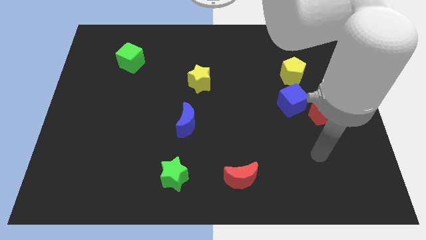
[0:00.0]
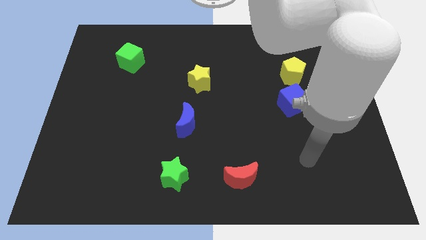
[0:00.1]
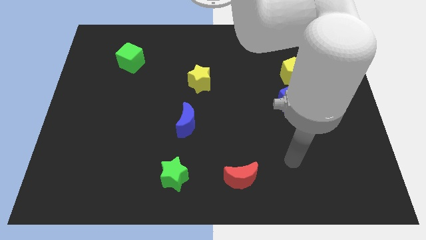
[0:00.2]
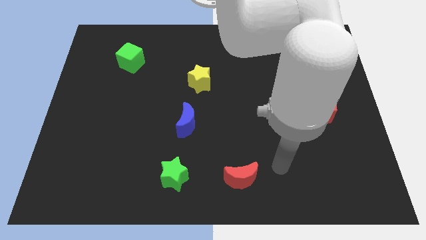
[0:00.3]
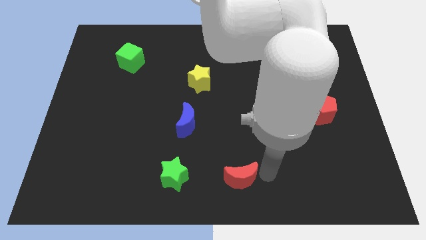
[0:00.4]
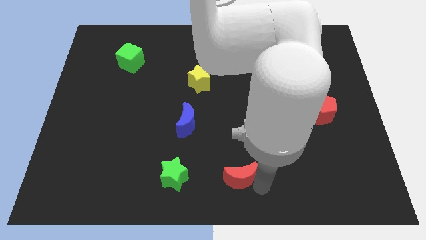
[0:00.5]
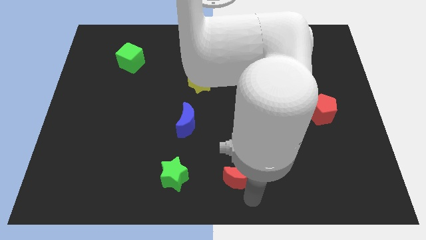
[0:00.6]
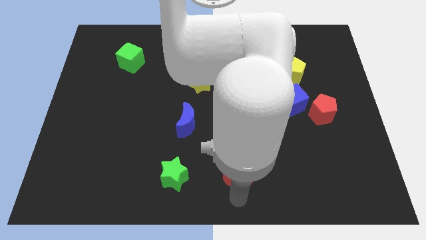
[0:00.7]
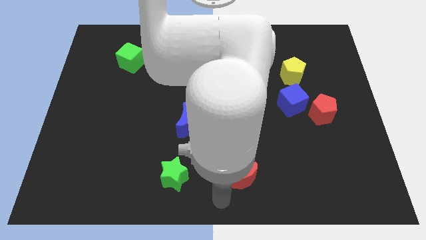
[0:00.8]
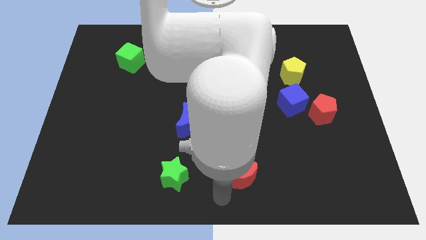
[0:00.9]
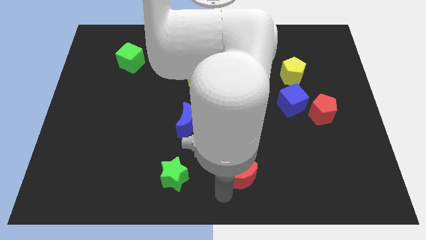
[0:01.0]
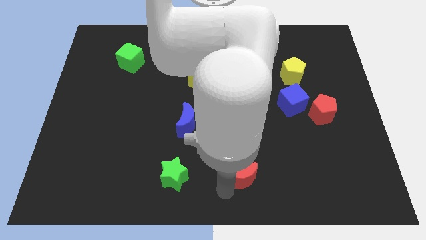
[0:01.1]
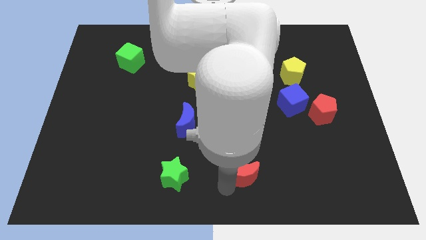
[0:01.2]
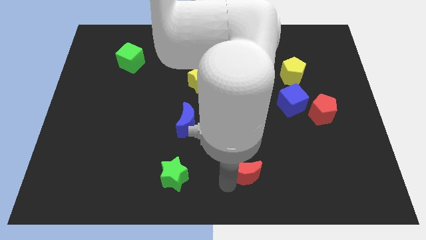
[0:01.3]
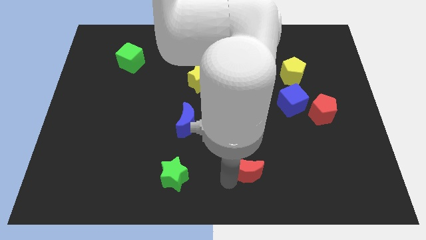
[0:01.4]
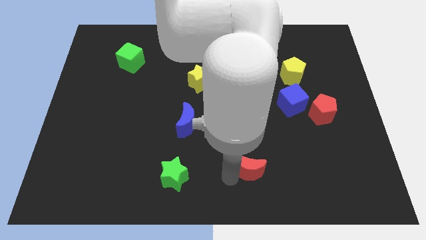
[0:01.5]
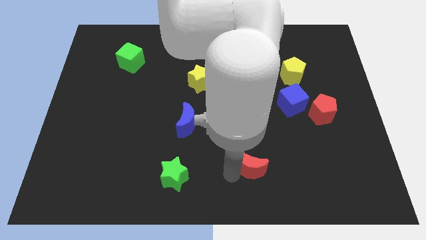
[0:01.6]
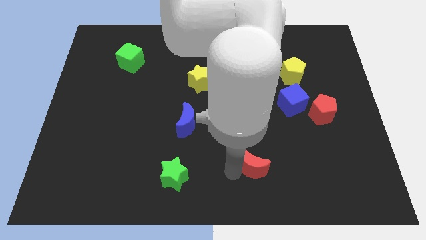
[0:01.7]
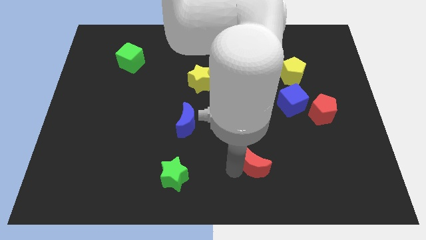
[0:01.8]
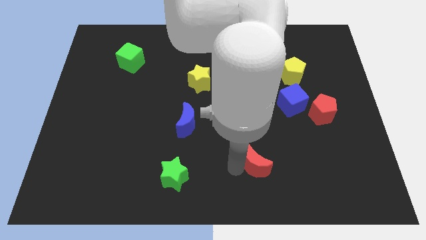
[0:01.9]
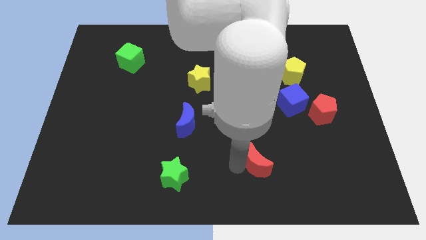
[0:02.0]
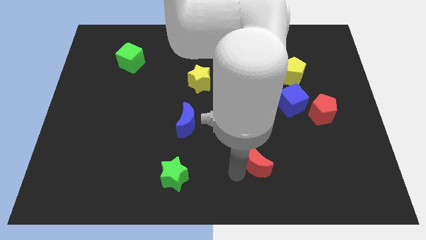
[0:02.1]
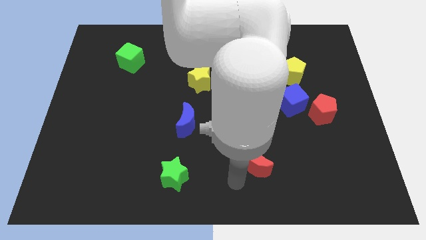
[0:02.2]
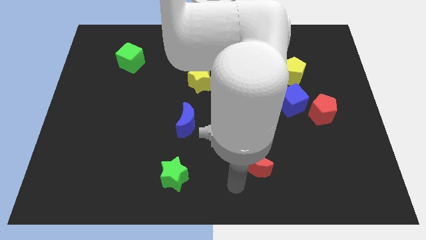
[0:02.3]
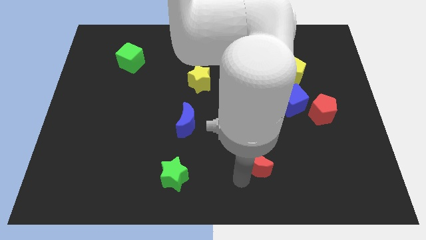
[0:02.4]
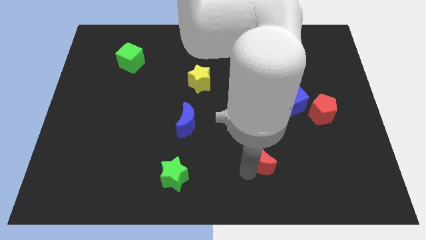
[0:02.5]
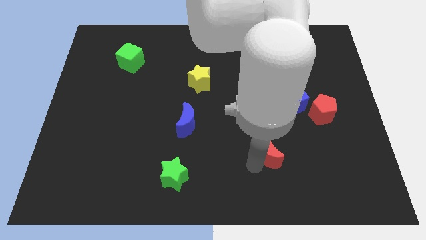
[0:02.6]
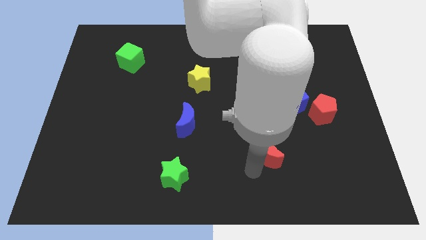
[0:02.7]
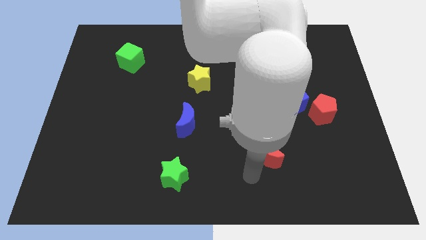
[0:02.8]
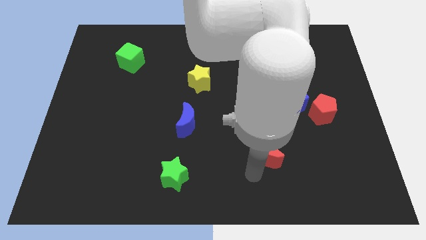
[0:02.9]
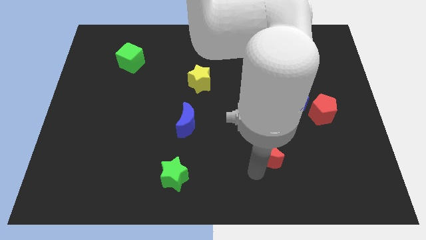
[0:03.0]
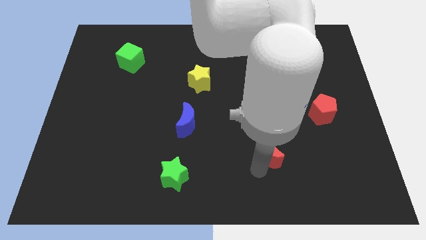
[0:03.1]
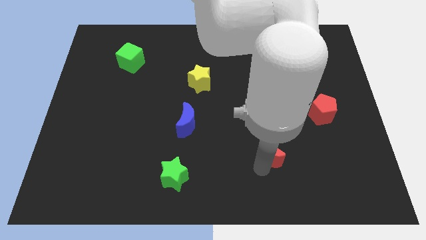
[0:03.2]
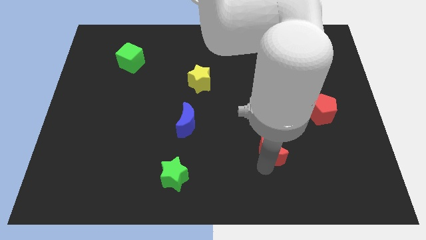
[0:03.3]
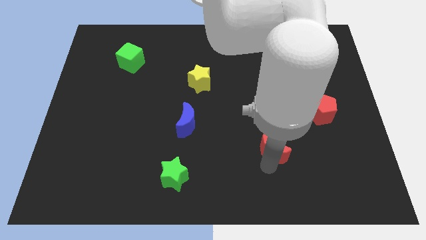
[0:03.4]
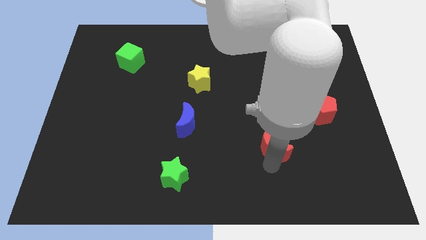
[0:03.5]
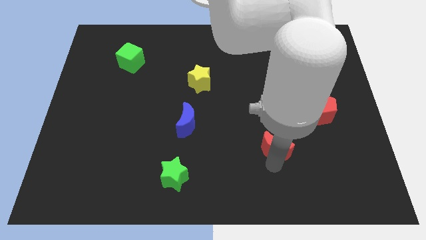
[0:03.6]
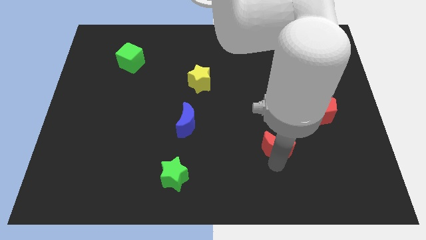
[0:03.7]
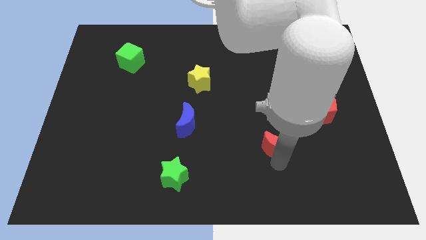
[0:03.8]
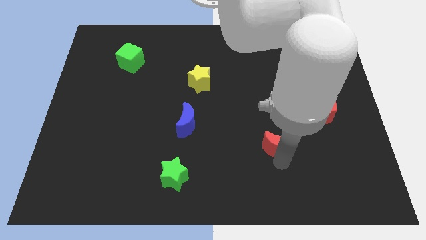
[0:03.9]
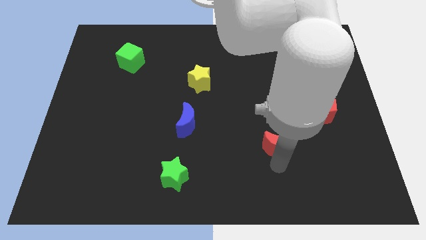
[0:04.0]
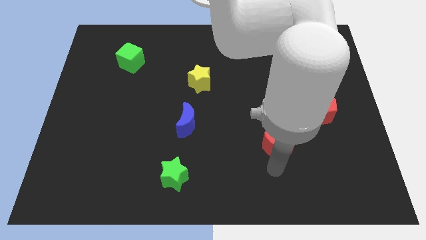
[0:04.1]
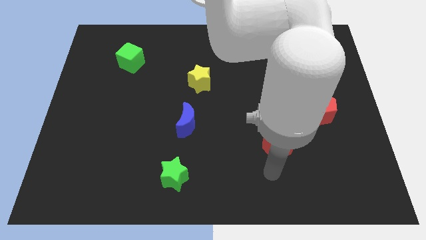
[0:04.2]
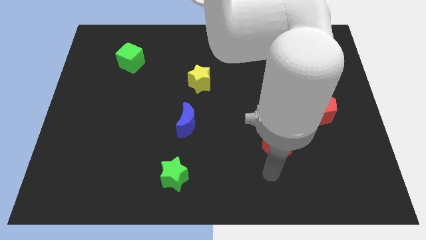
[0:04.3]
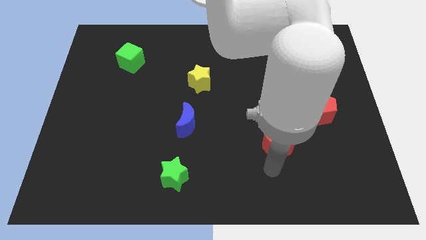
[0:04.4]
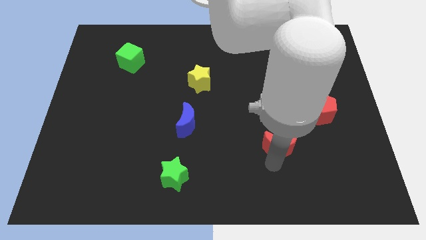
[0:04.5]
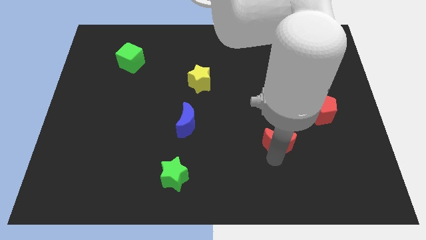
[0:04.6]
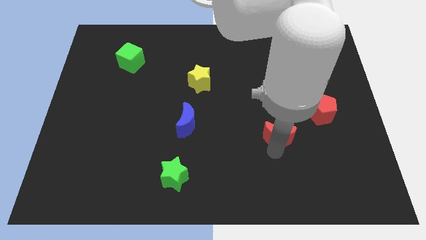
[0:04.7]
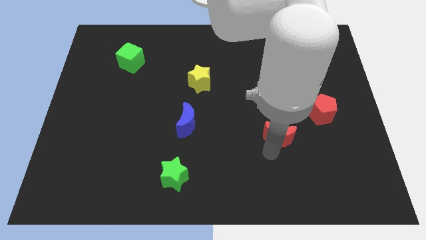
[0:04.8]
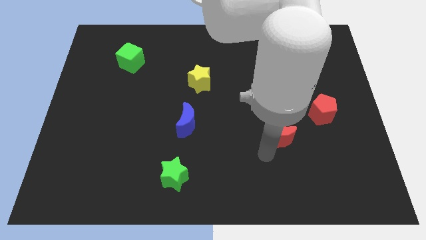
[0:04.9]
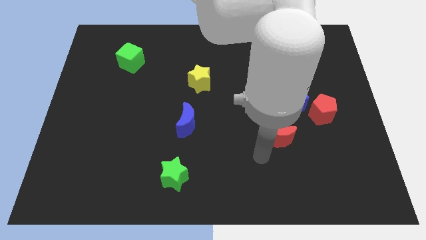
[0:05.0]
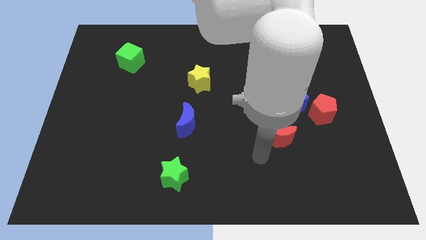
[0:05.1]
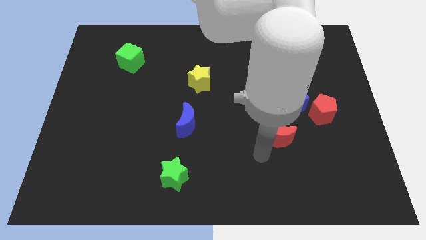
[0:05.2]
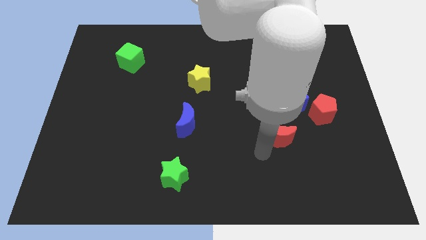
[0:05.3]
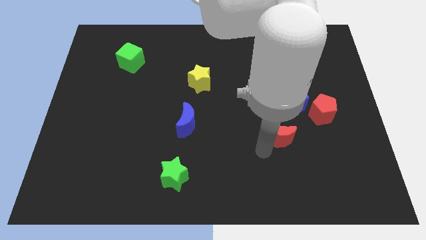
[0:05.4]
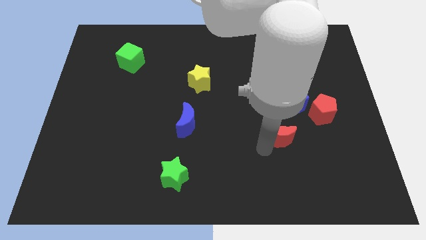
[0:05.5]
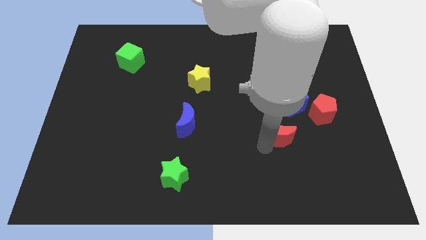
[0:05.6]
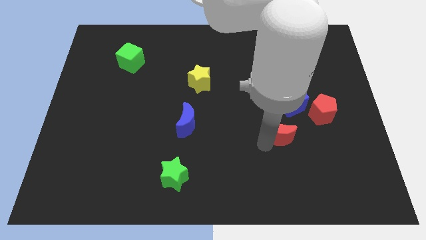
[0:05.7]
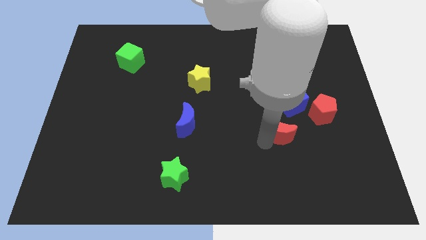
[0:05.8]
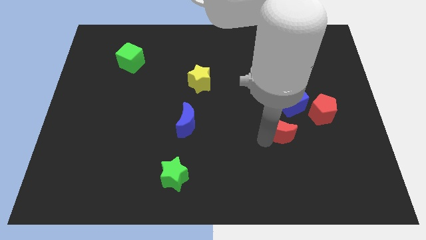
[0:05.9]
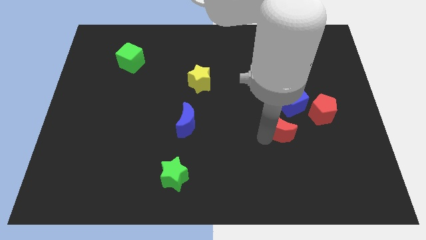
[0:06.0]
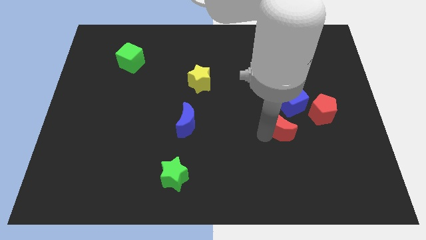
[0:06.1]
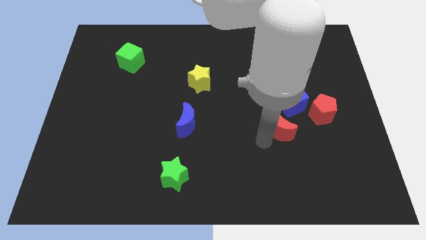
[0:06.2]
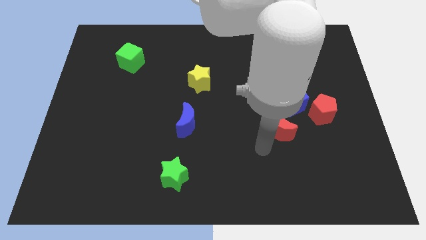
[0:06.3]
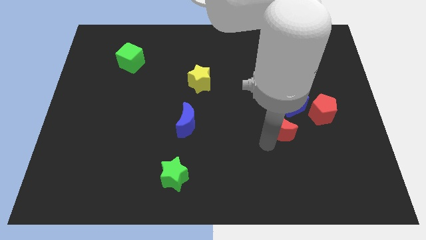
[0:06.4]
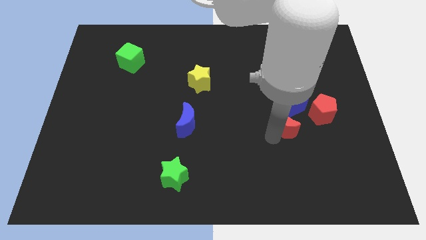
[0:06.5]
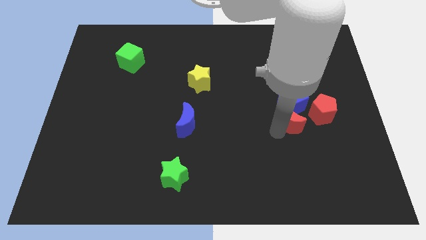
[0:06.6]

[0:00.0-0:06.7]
slide the red moon below the yellow pentagon
